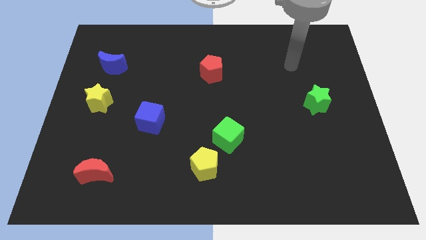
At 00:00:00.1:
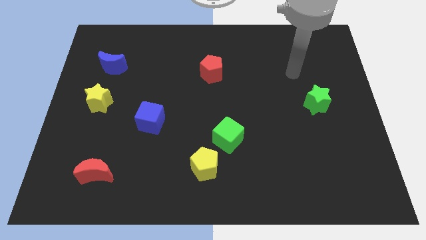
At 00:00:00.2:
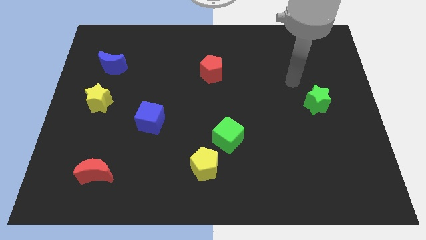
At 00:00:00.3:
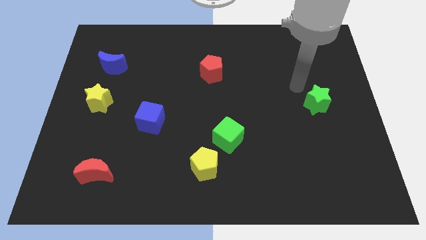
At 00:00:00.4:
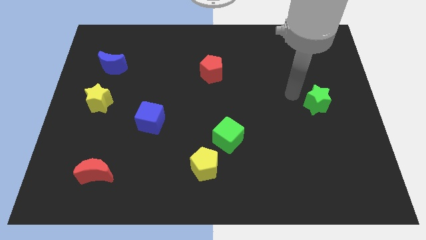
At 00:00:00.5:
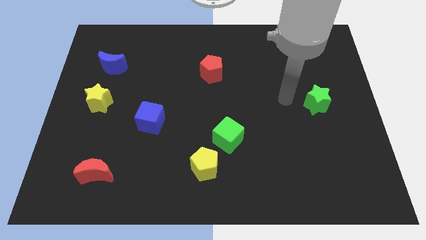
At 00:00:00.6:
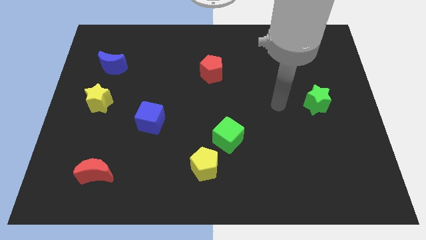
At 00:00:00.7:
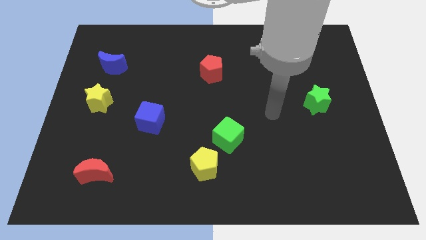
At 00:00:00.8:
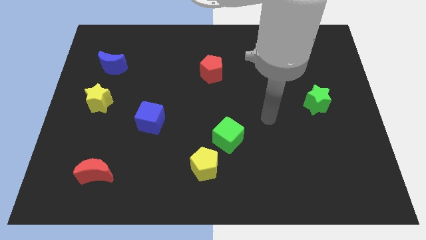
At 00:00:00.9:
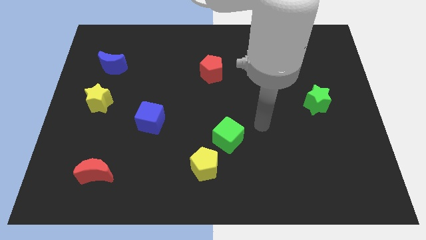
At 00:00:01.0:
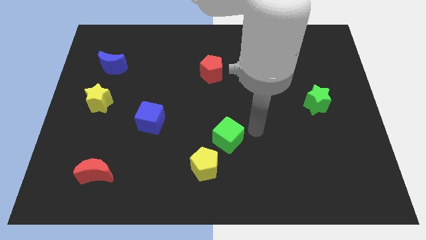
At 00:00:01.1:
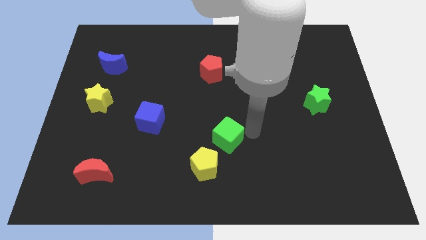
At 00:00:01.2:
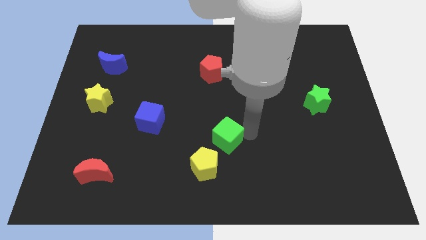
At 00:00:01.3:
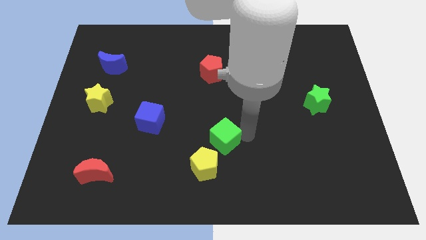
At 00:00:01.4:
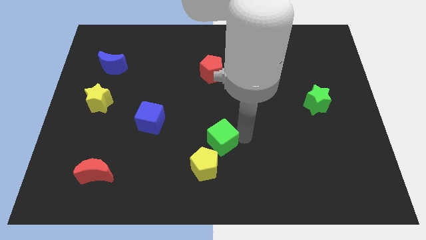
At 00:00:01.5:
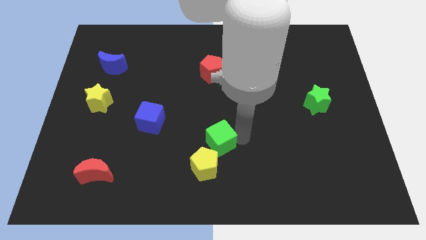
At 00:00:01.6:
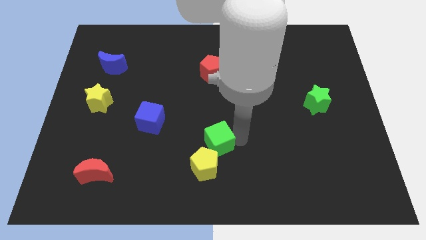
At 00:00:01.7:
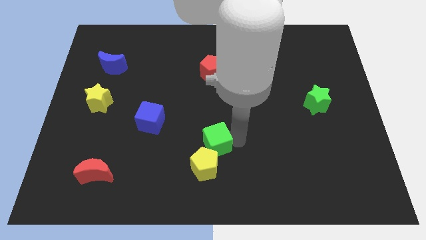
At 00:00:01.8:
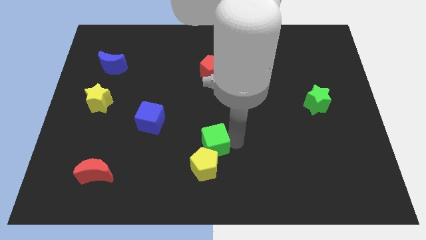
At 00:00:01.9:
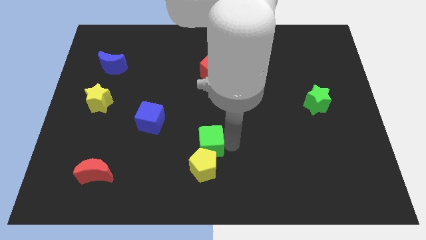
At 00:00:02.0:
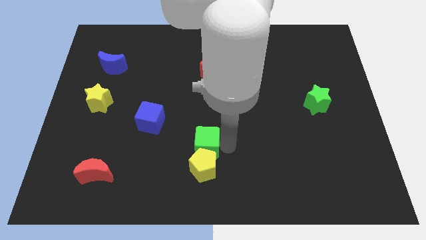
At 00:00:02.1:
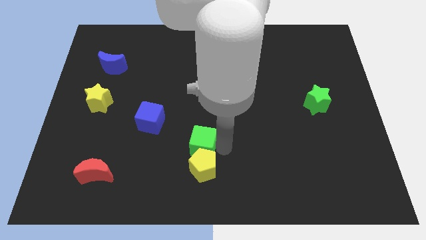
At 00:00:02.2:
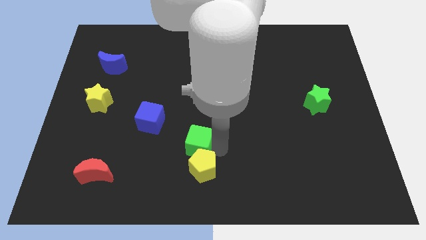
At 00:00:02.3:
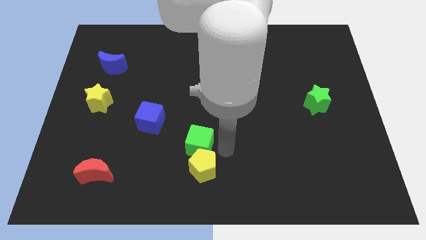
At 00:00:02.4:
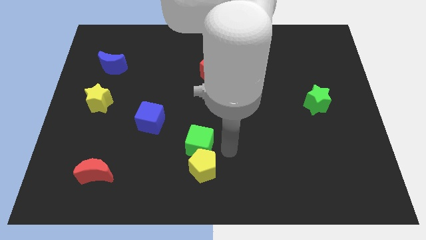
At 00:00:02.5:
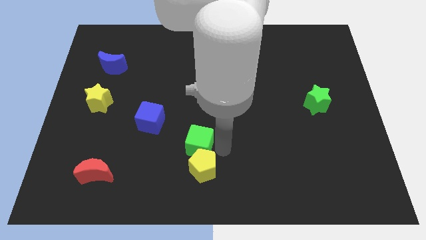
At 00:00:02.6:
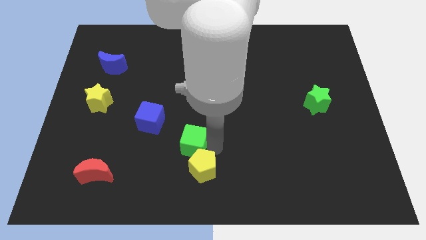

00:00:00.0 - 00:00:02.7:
slide the green cube to the left a little bit

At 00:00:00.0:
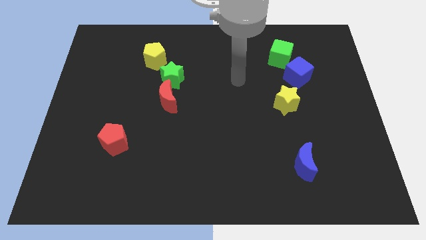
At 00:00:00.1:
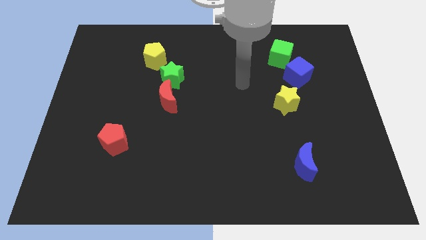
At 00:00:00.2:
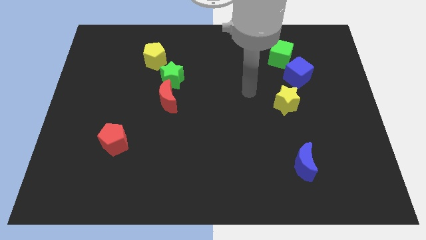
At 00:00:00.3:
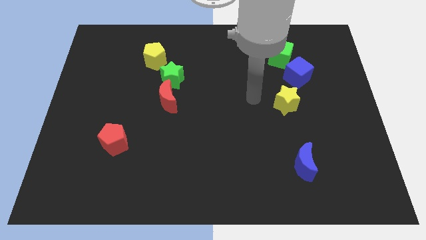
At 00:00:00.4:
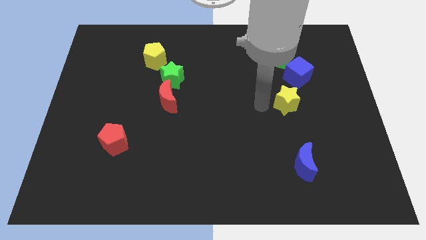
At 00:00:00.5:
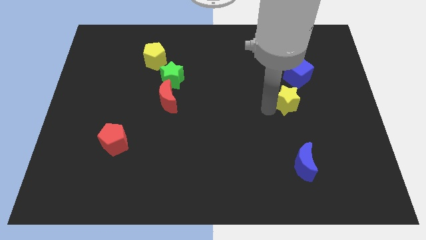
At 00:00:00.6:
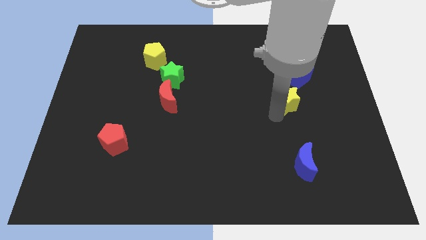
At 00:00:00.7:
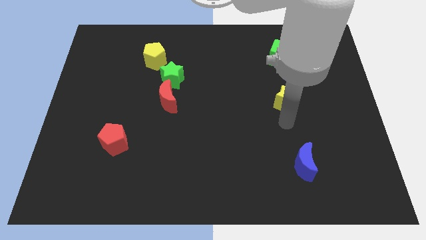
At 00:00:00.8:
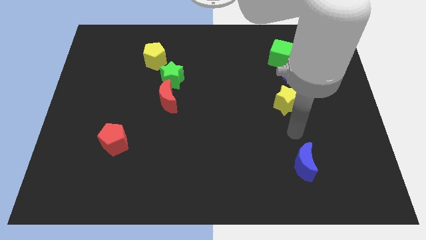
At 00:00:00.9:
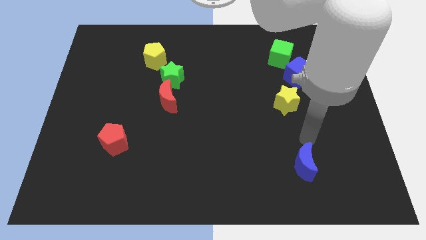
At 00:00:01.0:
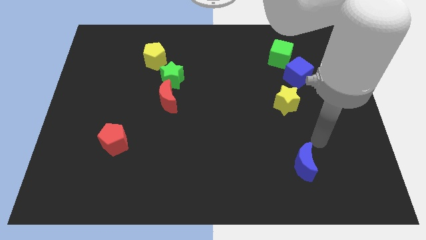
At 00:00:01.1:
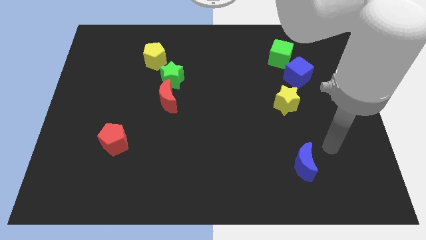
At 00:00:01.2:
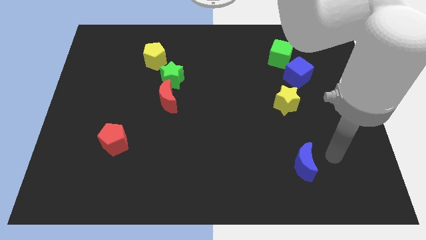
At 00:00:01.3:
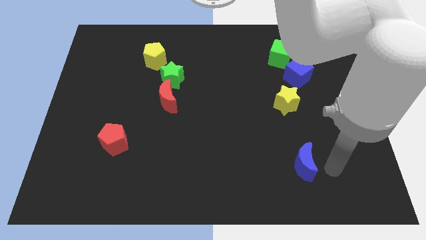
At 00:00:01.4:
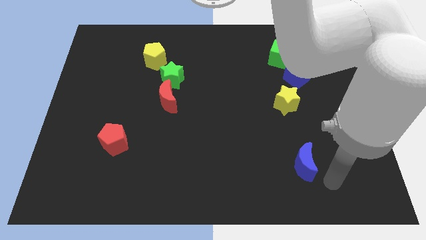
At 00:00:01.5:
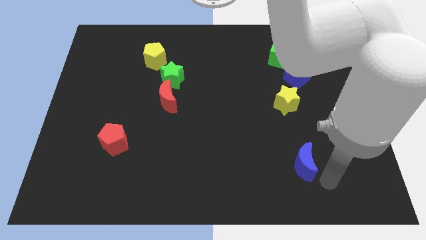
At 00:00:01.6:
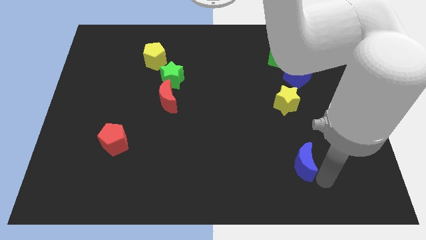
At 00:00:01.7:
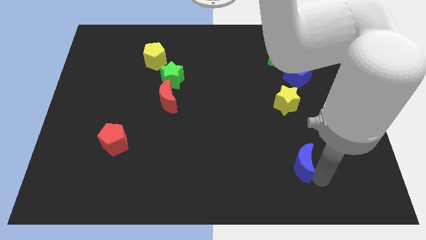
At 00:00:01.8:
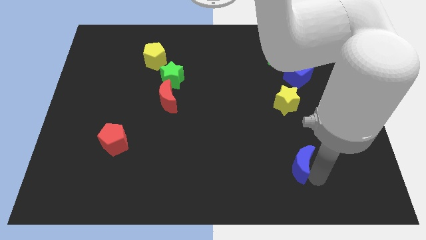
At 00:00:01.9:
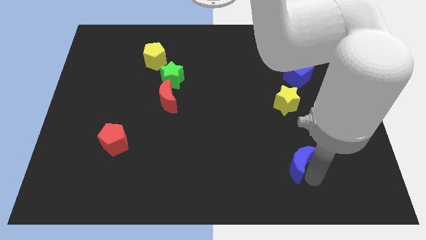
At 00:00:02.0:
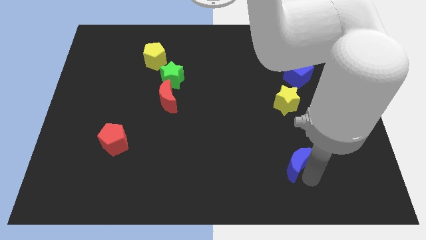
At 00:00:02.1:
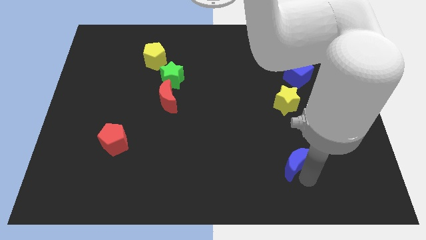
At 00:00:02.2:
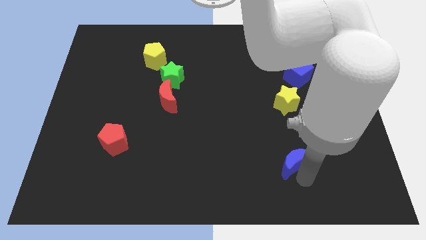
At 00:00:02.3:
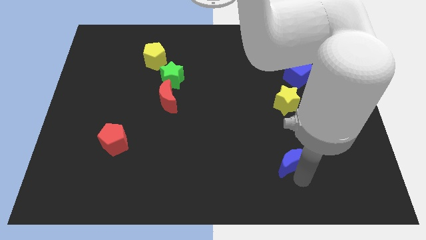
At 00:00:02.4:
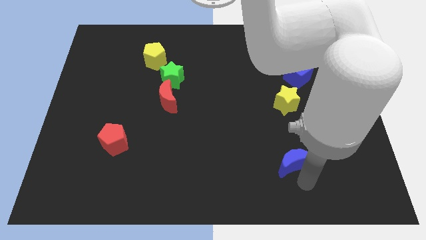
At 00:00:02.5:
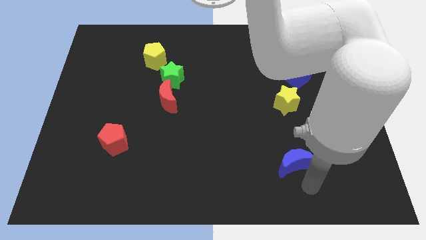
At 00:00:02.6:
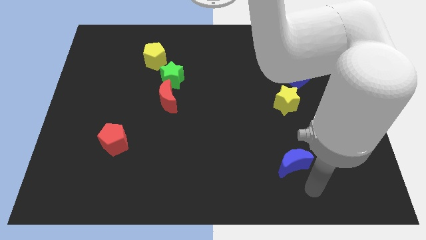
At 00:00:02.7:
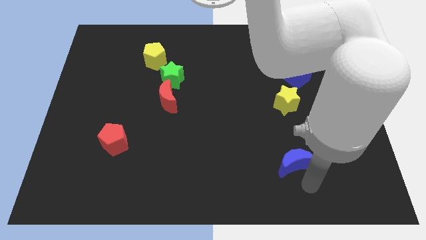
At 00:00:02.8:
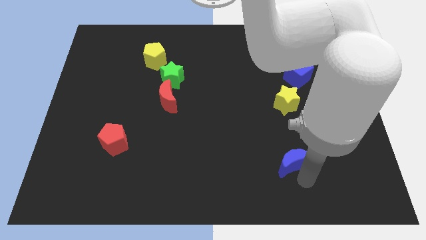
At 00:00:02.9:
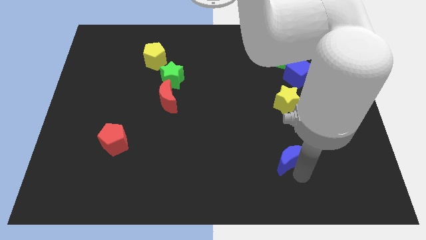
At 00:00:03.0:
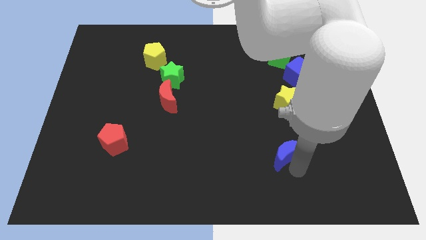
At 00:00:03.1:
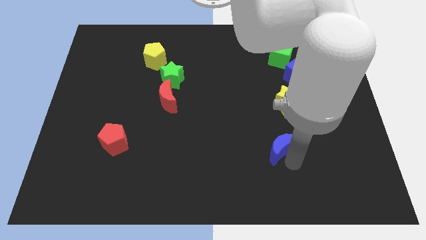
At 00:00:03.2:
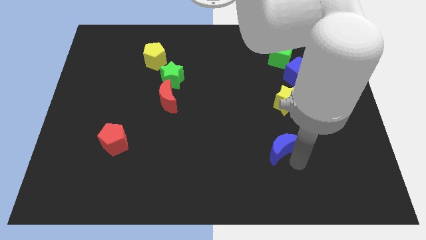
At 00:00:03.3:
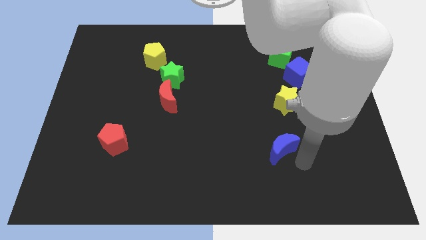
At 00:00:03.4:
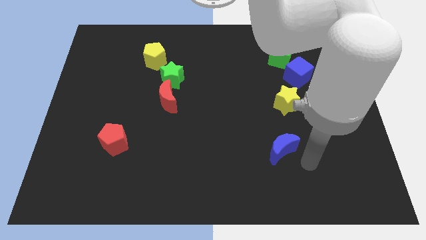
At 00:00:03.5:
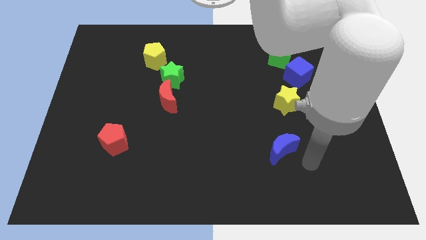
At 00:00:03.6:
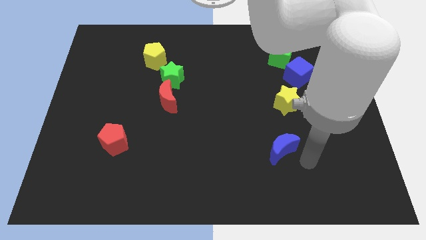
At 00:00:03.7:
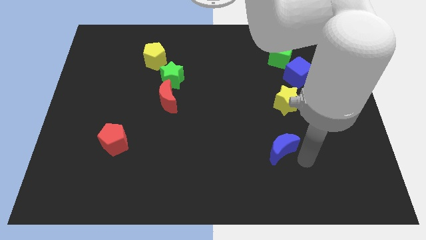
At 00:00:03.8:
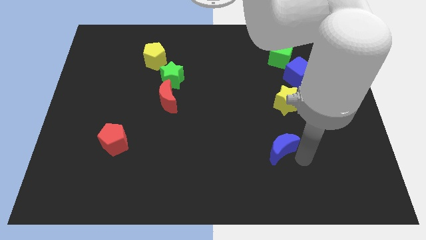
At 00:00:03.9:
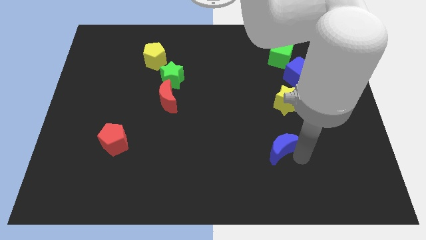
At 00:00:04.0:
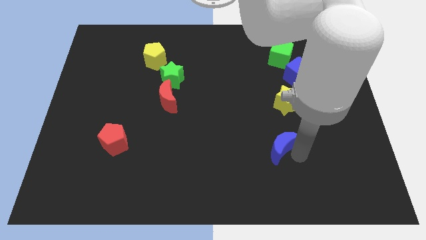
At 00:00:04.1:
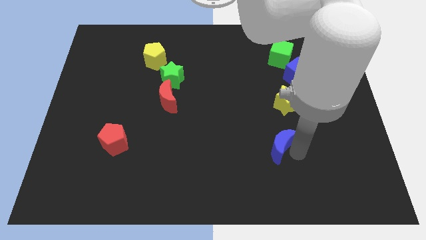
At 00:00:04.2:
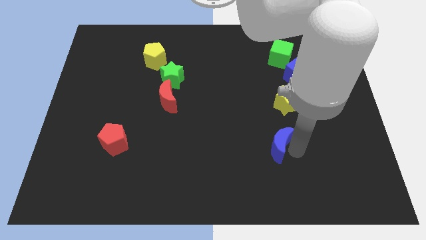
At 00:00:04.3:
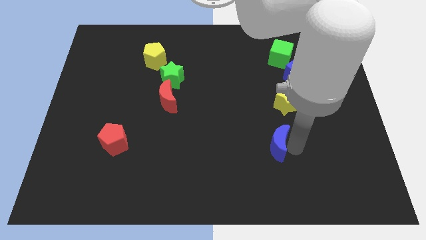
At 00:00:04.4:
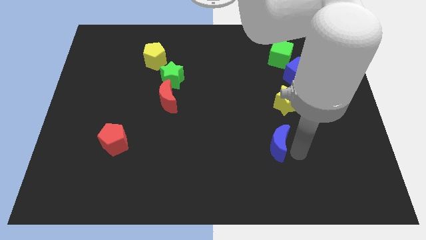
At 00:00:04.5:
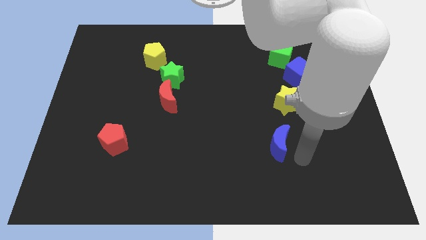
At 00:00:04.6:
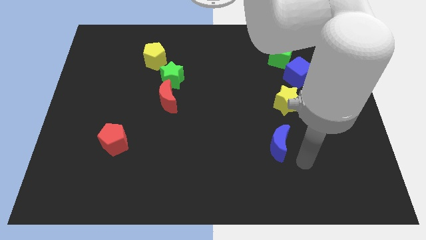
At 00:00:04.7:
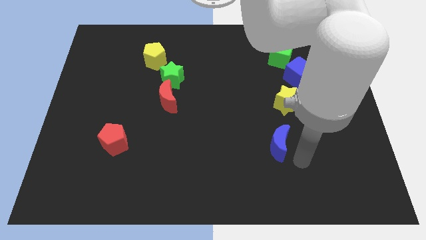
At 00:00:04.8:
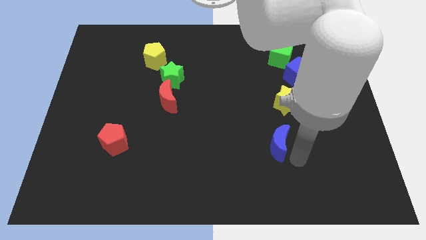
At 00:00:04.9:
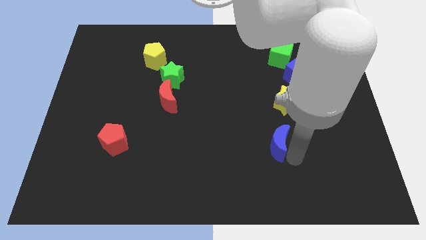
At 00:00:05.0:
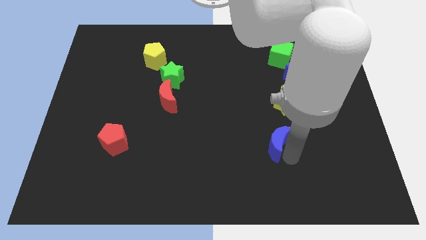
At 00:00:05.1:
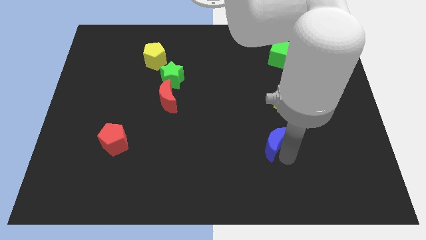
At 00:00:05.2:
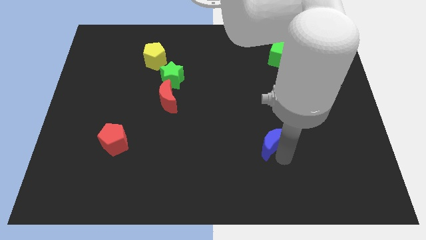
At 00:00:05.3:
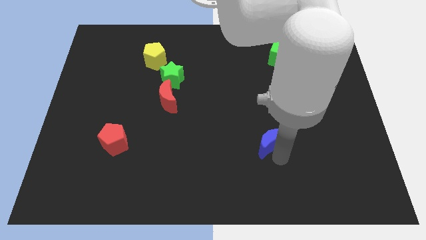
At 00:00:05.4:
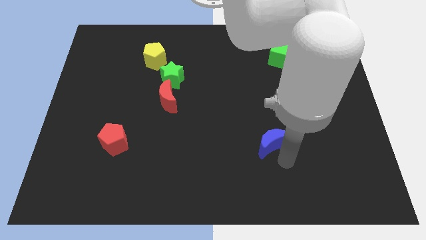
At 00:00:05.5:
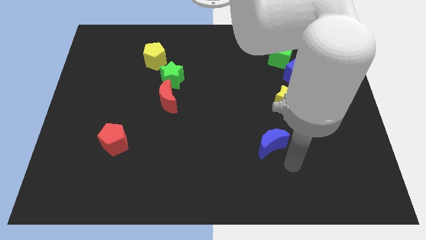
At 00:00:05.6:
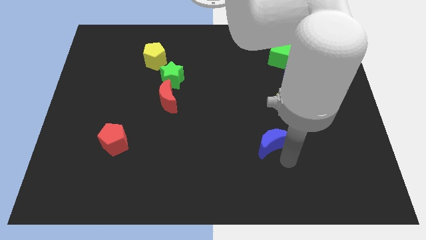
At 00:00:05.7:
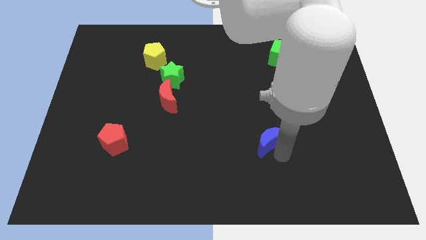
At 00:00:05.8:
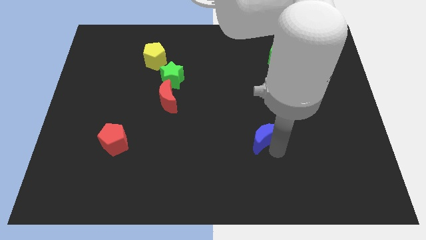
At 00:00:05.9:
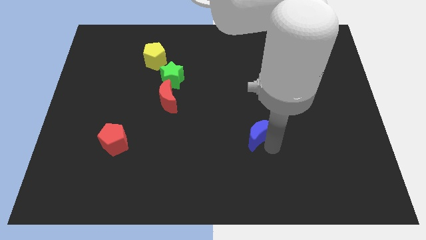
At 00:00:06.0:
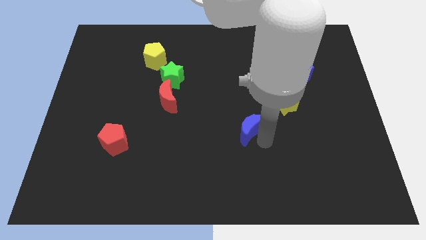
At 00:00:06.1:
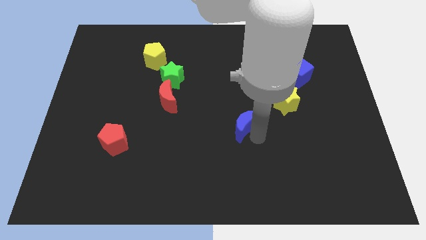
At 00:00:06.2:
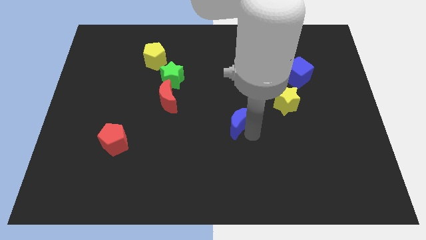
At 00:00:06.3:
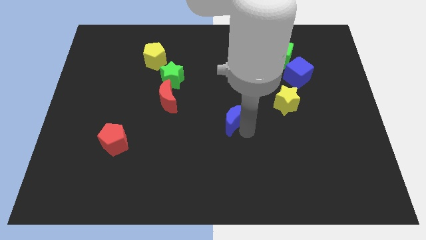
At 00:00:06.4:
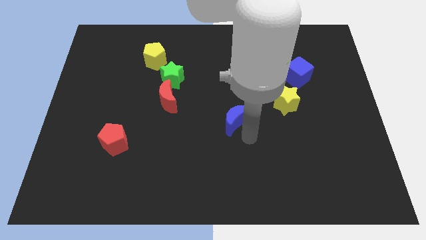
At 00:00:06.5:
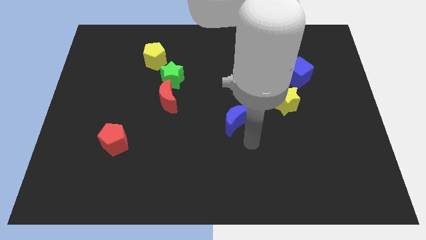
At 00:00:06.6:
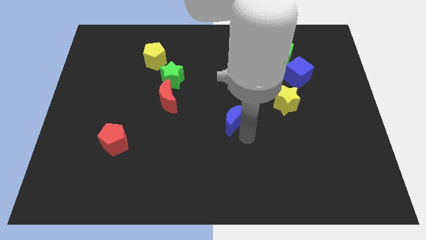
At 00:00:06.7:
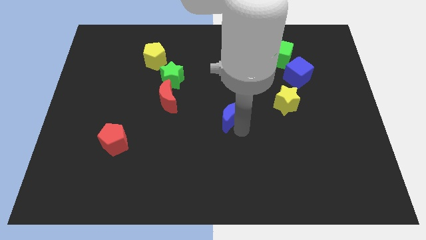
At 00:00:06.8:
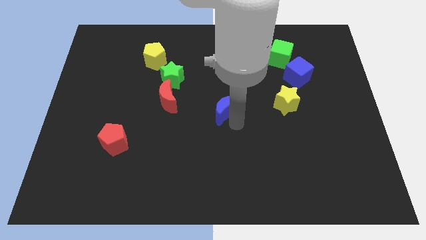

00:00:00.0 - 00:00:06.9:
slide the blue moon up and then left
